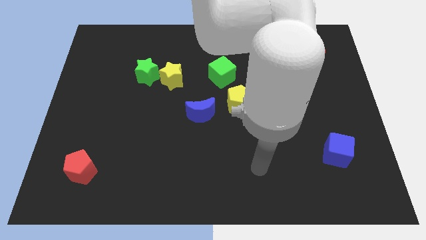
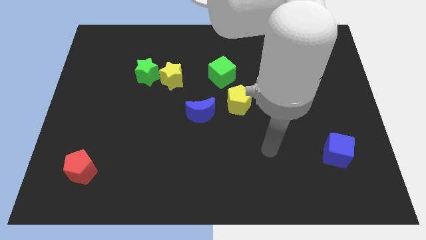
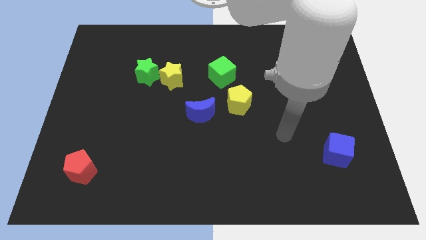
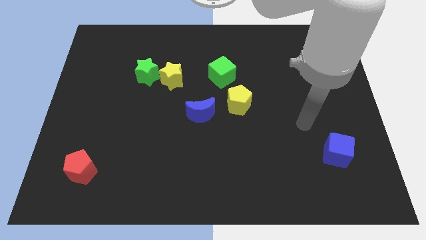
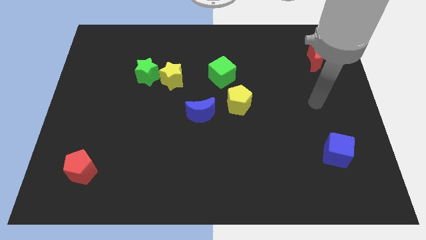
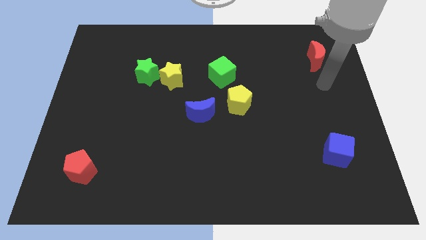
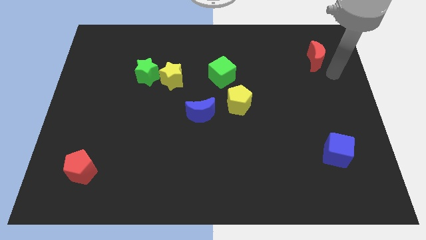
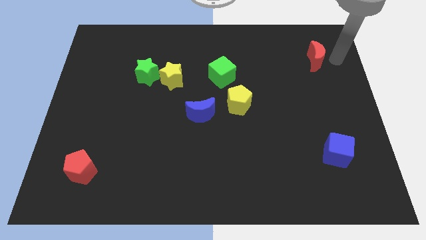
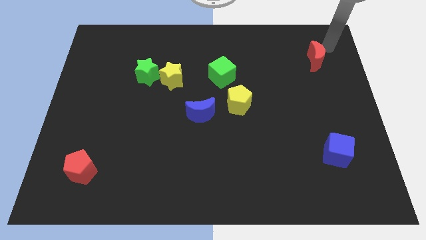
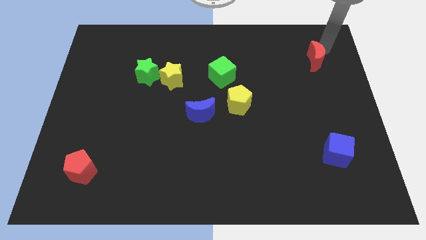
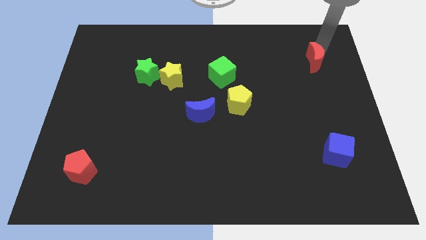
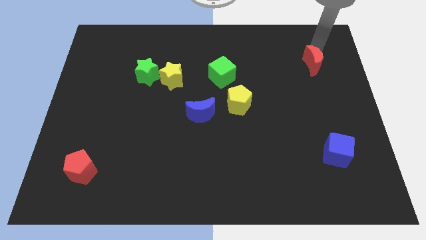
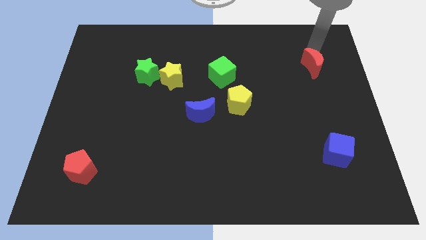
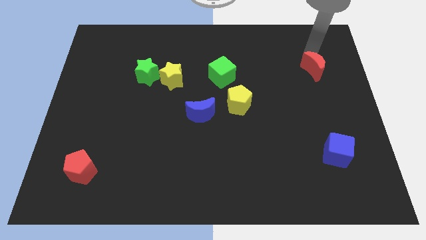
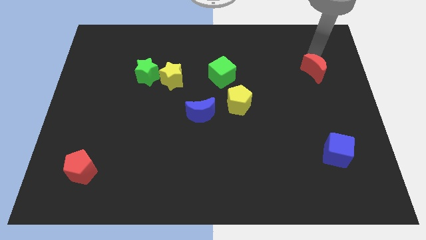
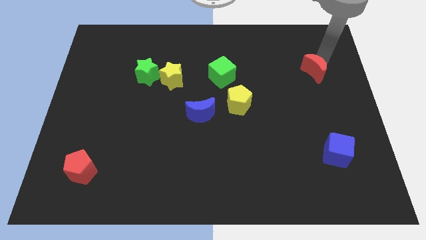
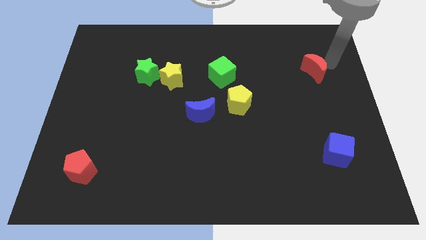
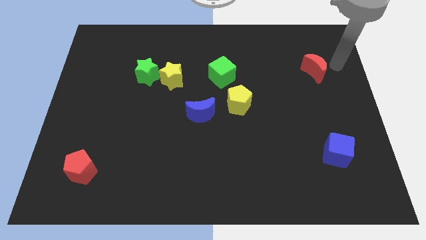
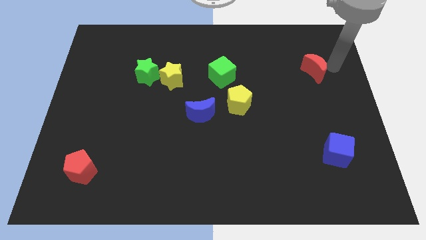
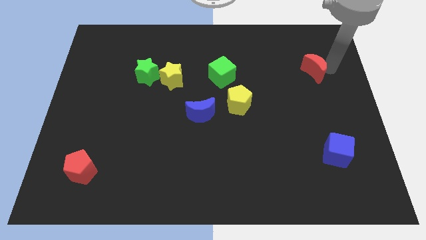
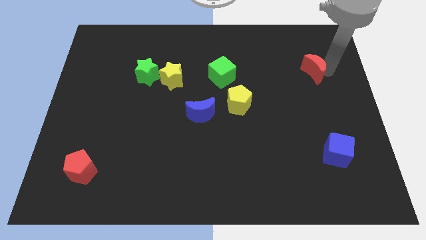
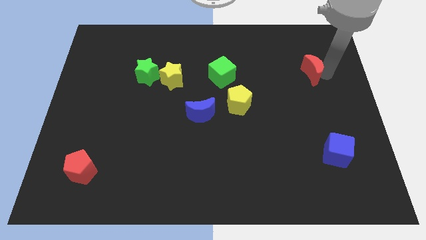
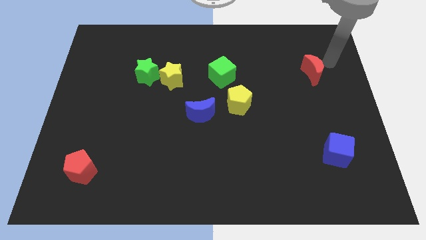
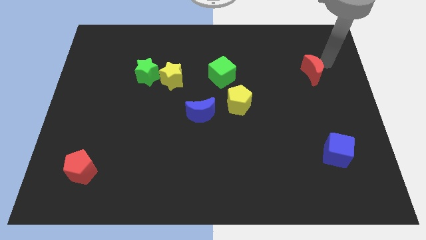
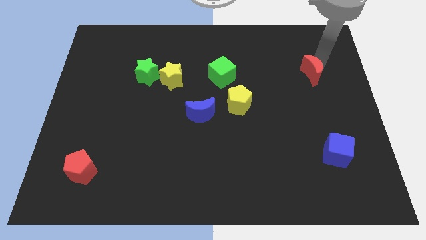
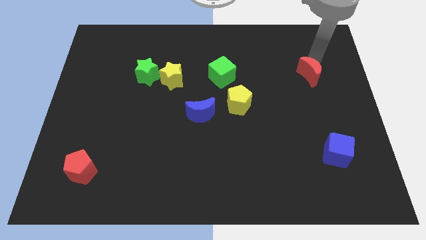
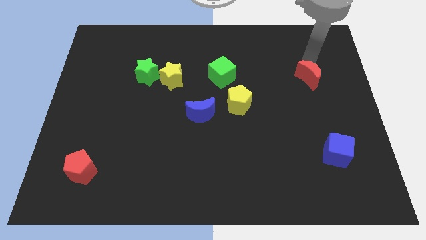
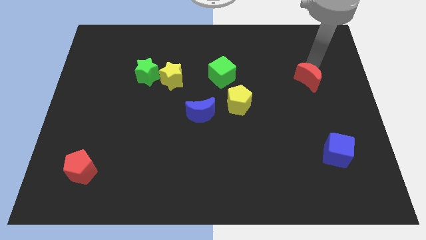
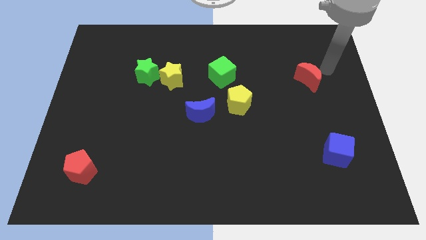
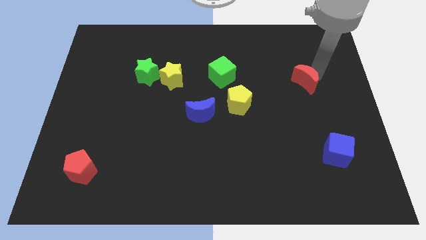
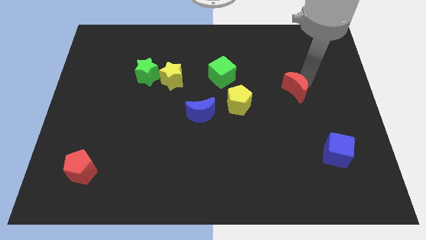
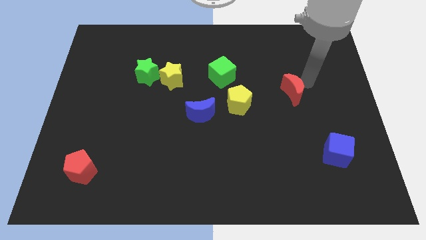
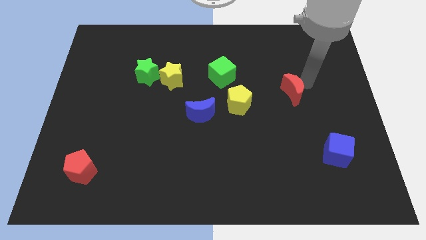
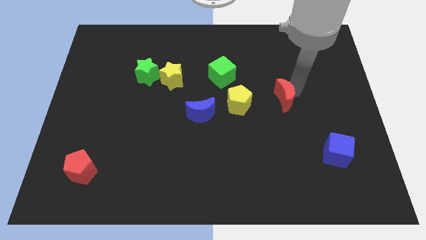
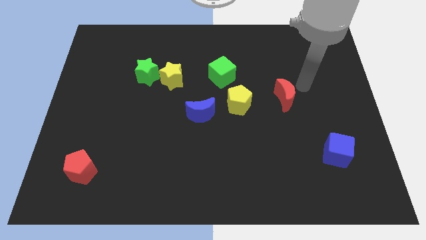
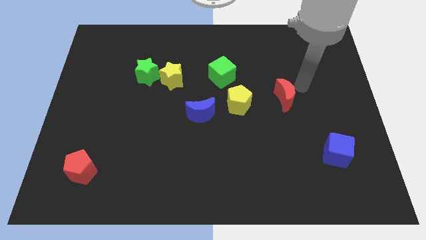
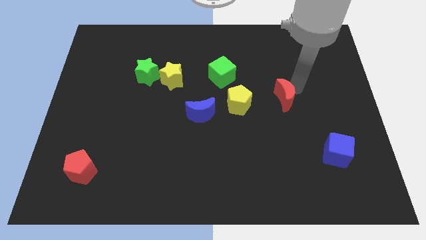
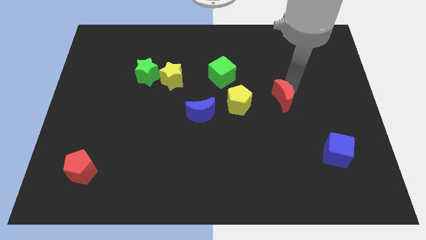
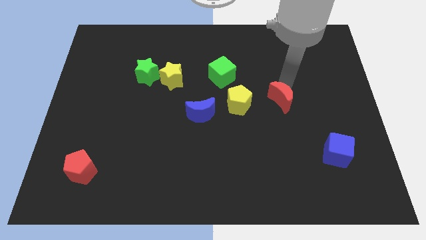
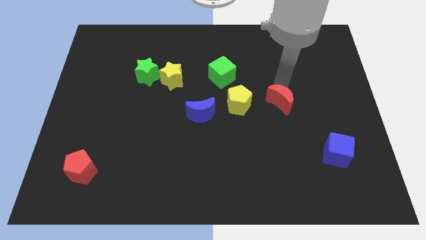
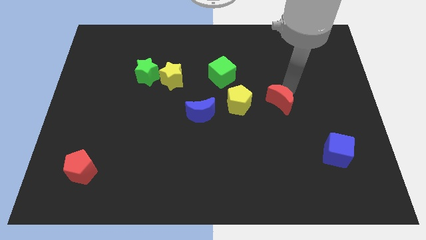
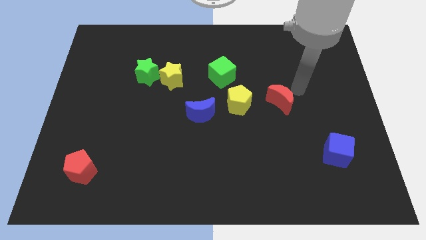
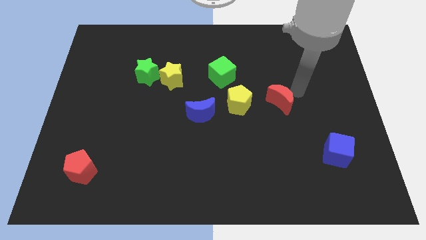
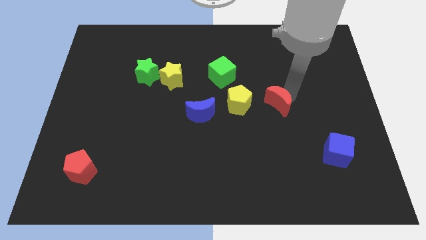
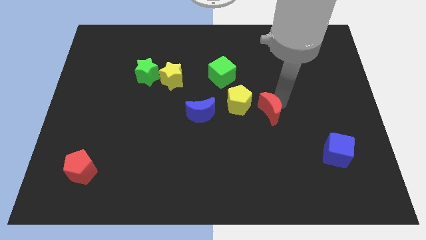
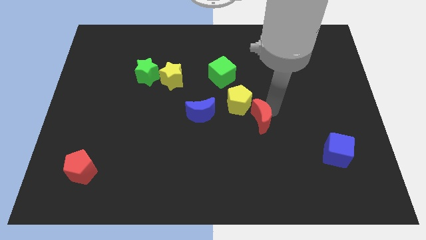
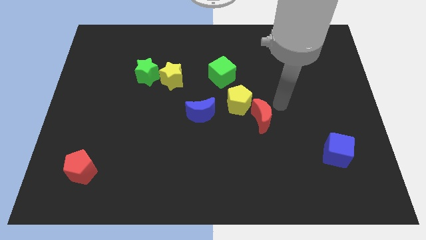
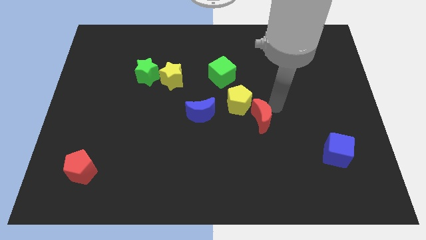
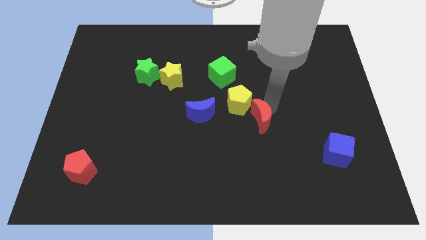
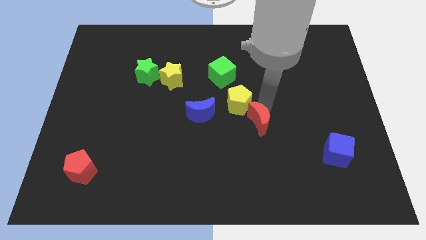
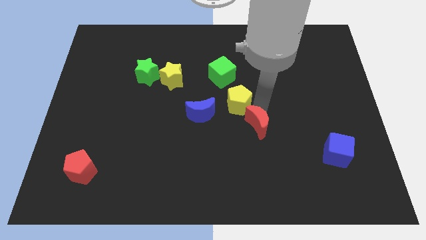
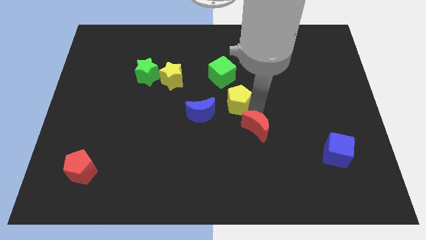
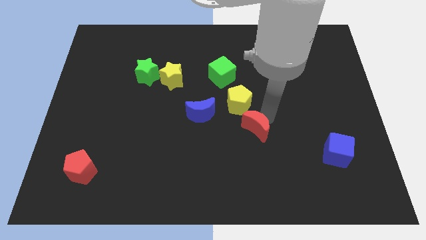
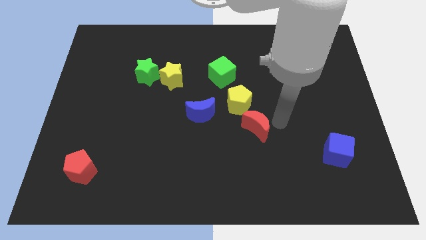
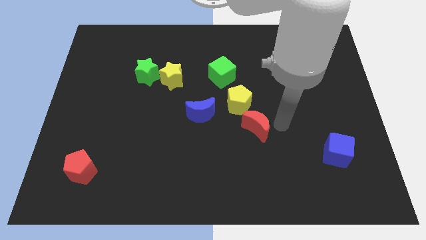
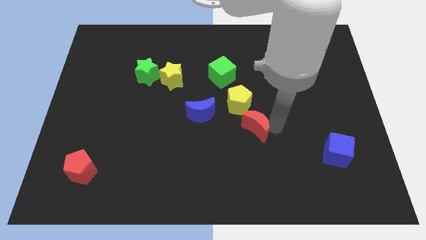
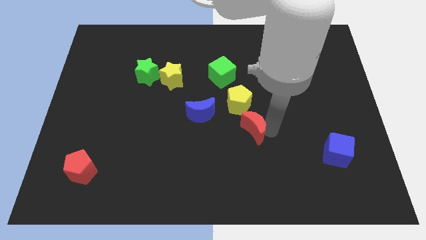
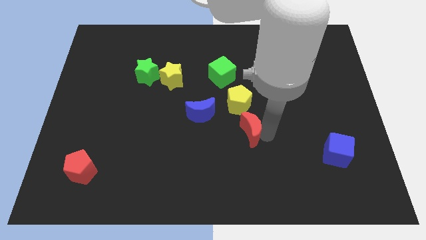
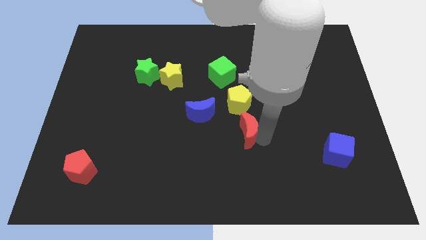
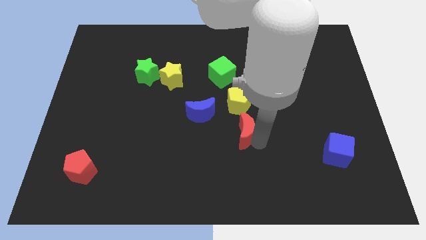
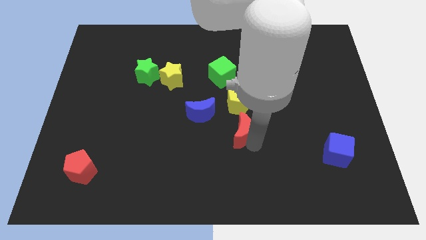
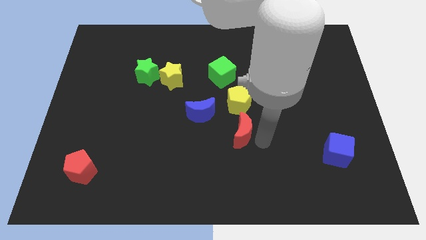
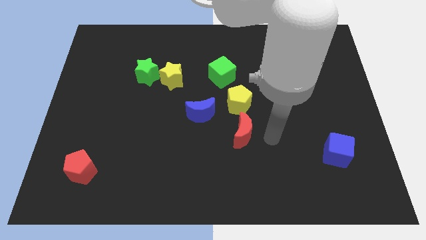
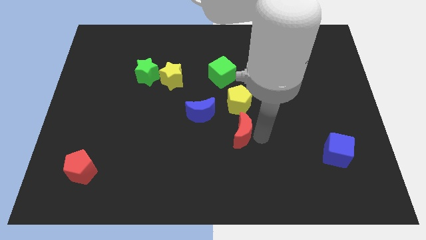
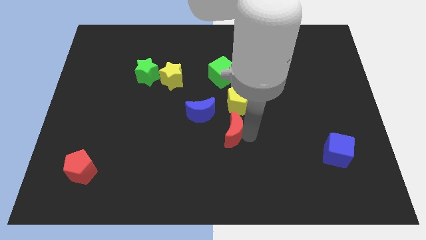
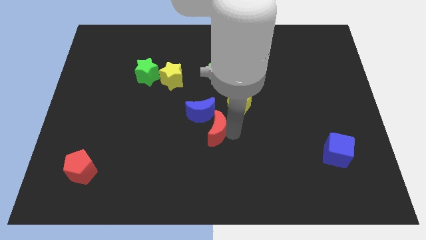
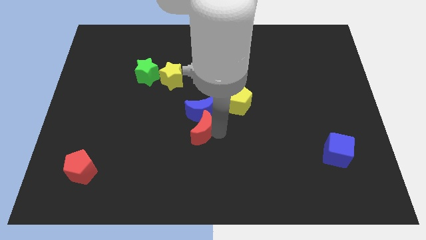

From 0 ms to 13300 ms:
move the red moon diagonally down and to the left of the blue moon
